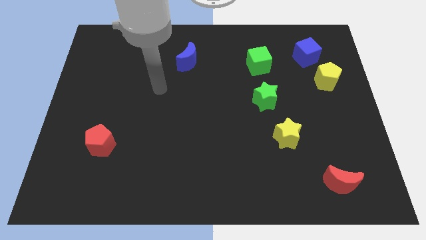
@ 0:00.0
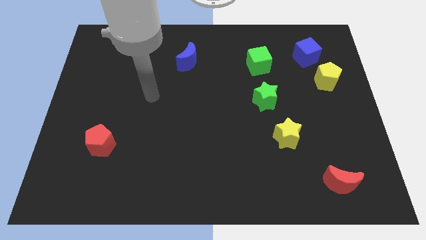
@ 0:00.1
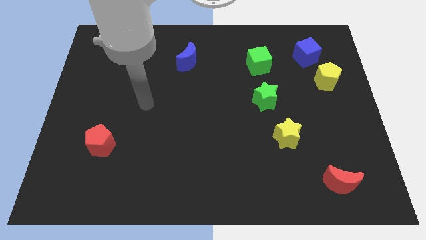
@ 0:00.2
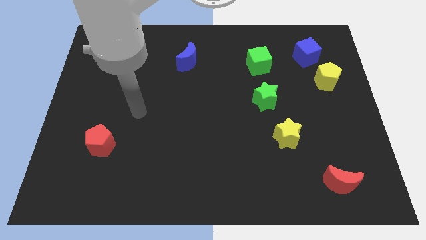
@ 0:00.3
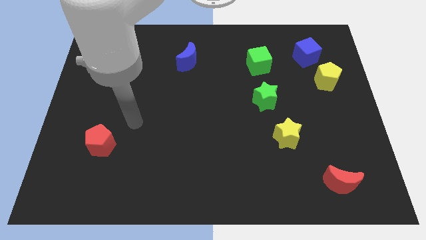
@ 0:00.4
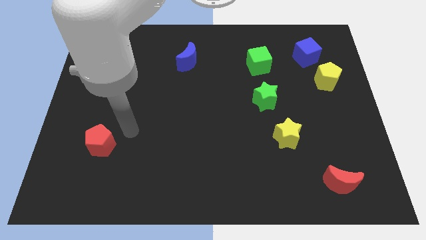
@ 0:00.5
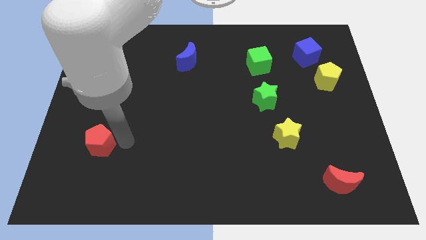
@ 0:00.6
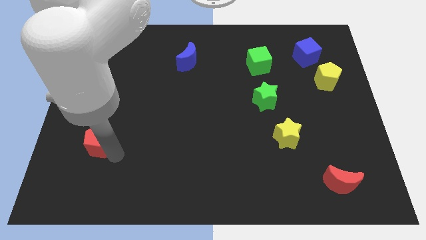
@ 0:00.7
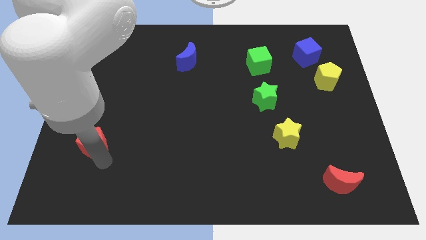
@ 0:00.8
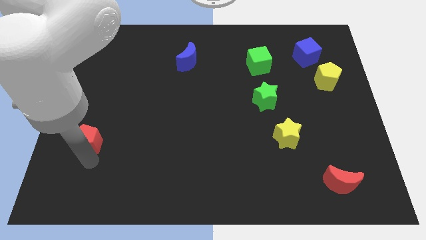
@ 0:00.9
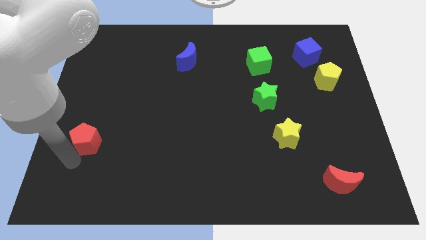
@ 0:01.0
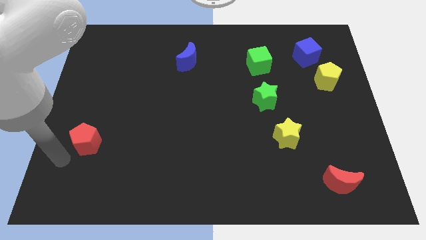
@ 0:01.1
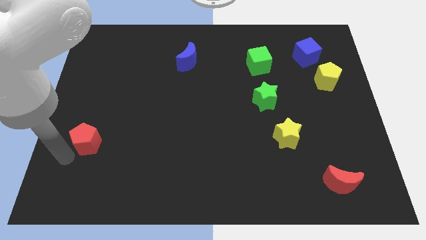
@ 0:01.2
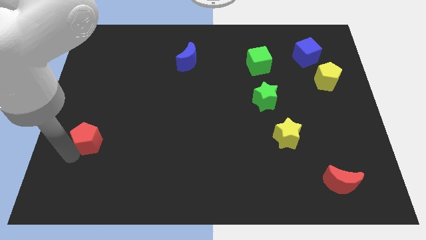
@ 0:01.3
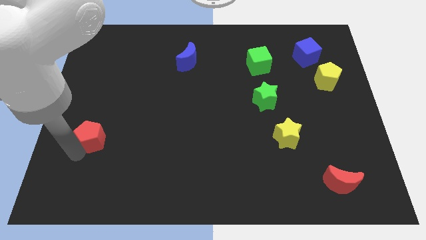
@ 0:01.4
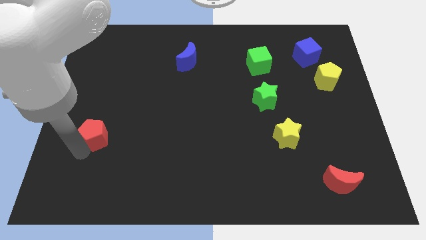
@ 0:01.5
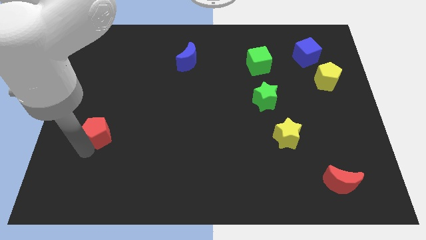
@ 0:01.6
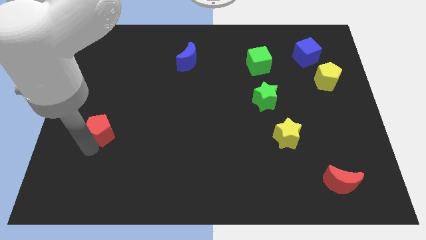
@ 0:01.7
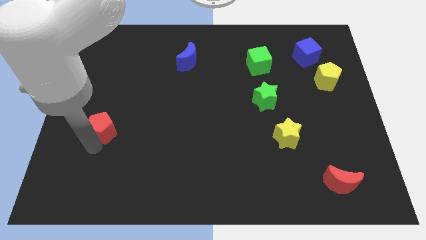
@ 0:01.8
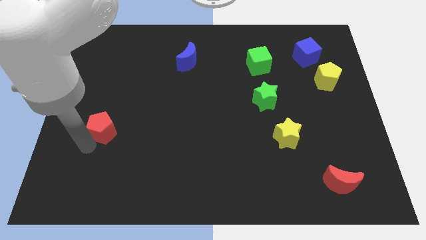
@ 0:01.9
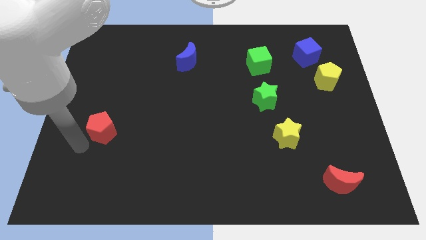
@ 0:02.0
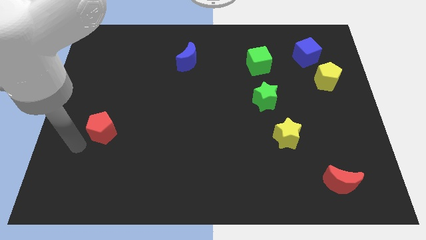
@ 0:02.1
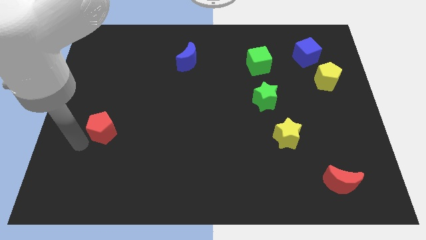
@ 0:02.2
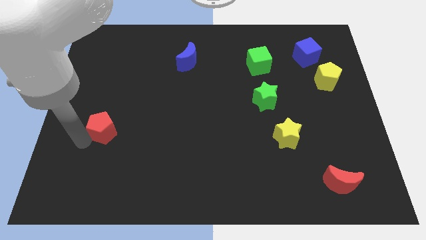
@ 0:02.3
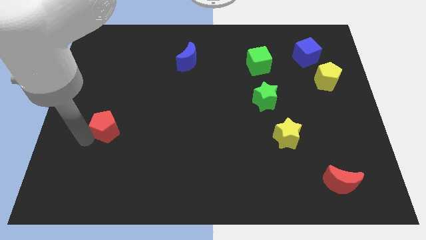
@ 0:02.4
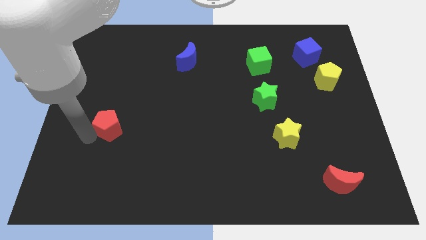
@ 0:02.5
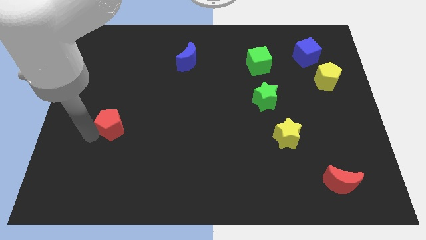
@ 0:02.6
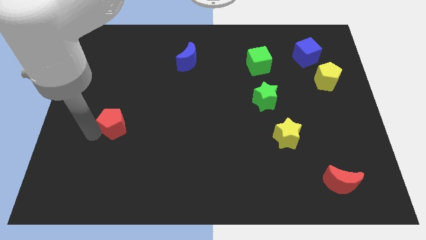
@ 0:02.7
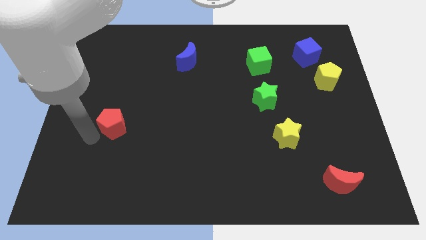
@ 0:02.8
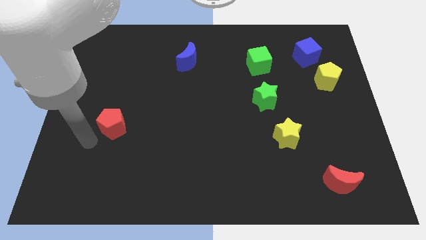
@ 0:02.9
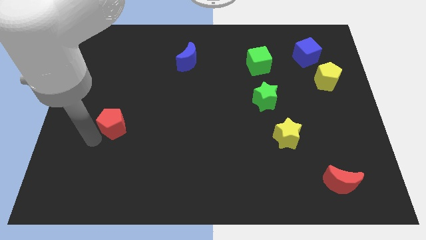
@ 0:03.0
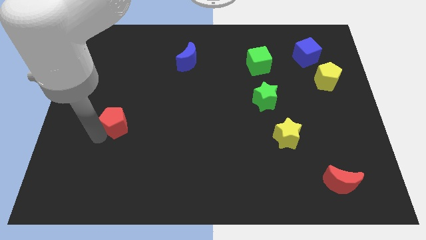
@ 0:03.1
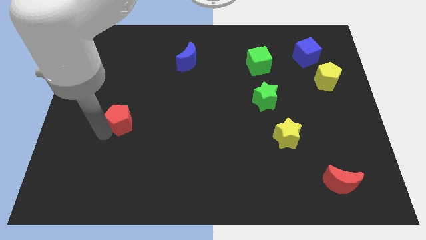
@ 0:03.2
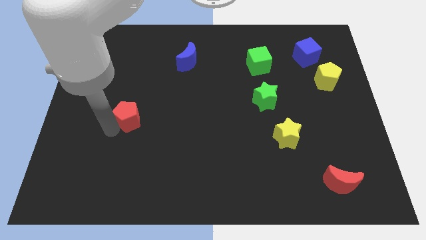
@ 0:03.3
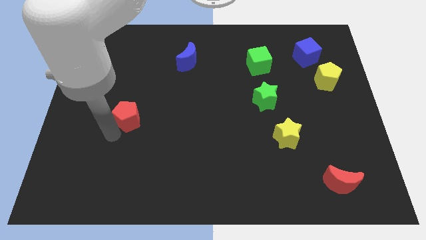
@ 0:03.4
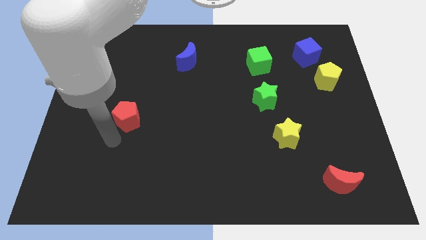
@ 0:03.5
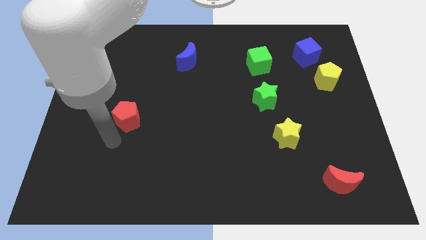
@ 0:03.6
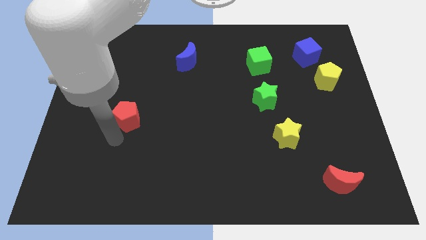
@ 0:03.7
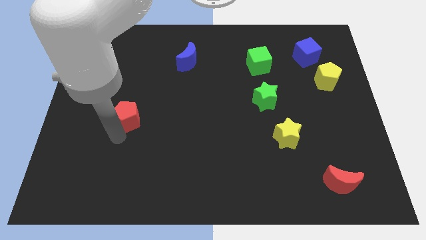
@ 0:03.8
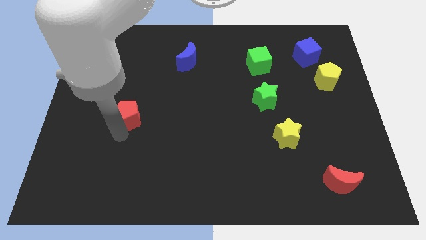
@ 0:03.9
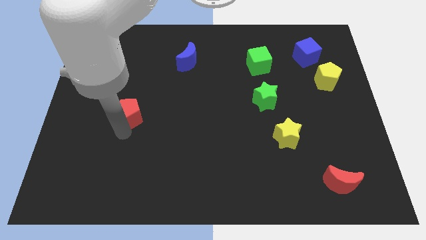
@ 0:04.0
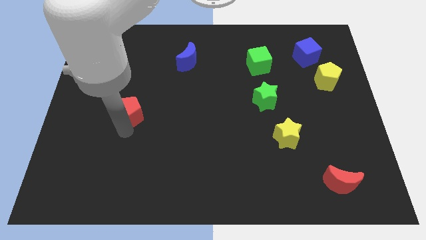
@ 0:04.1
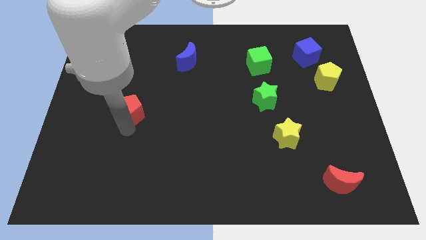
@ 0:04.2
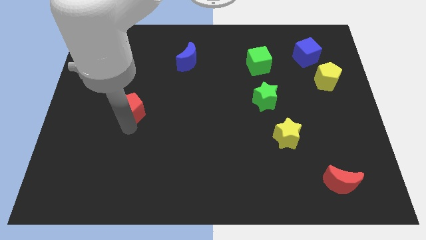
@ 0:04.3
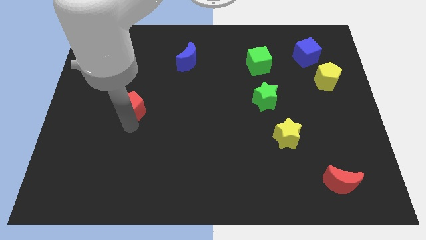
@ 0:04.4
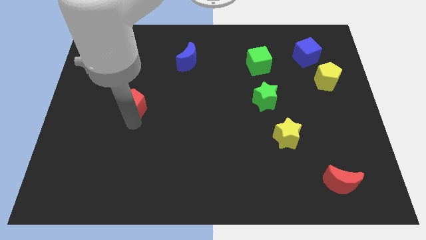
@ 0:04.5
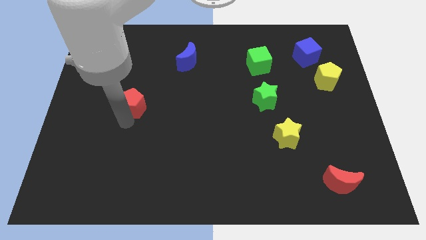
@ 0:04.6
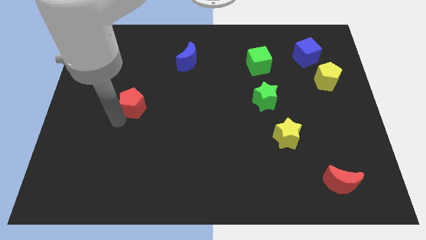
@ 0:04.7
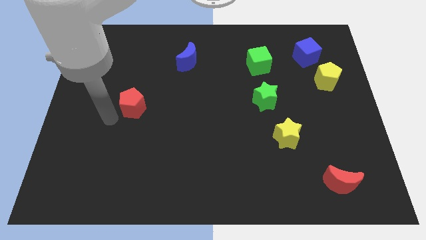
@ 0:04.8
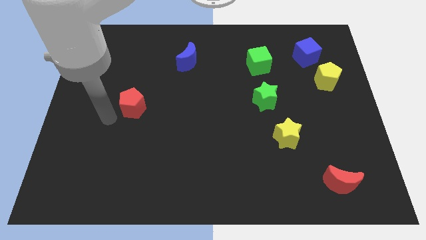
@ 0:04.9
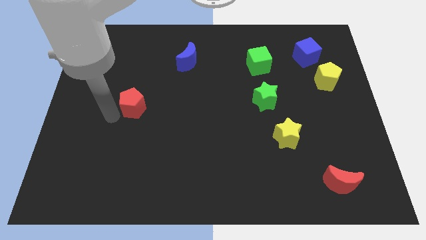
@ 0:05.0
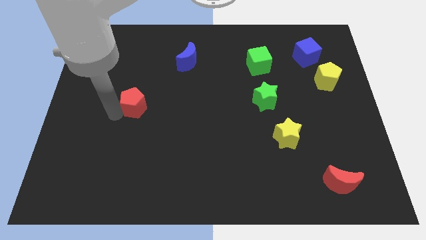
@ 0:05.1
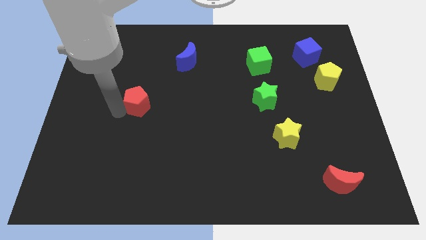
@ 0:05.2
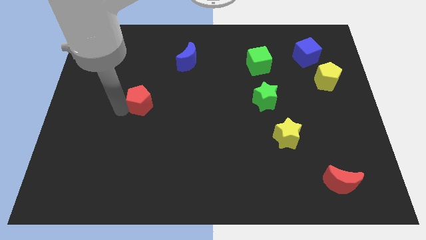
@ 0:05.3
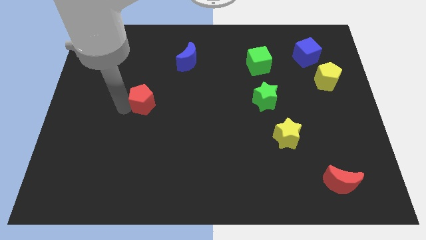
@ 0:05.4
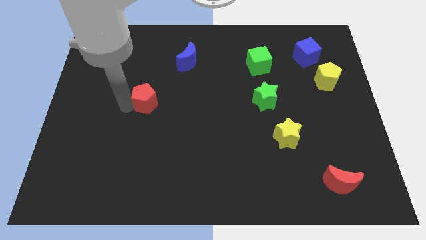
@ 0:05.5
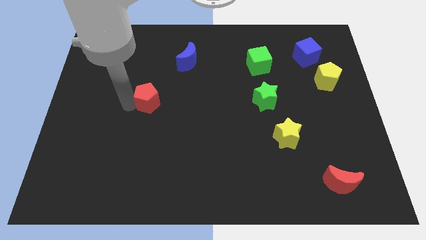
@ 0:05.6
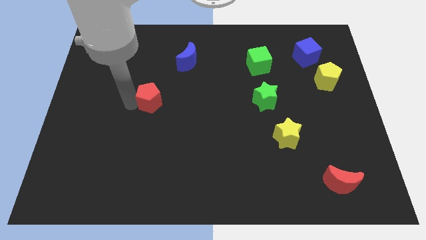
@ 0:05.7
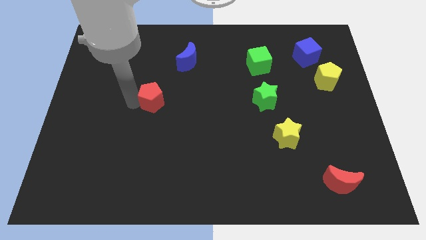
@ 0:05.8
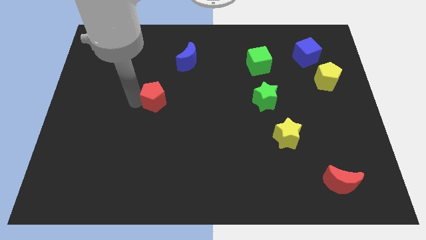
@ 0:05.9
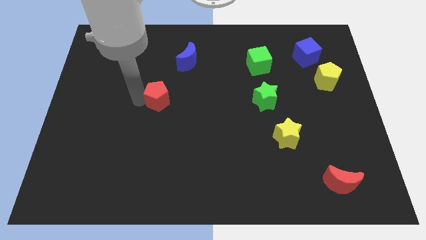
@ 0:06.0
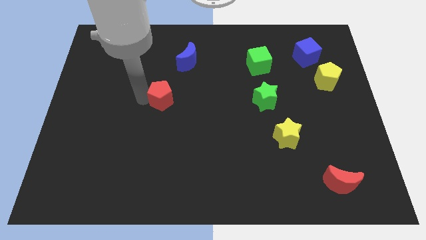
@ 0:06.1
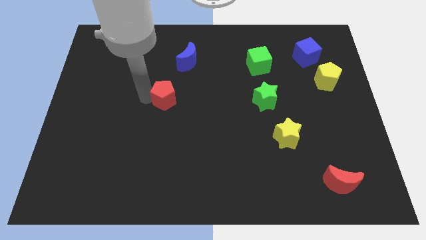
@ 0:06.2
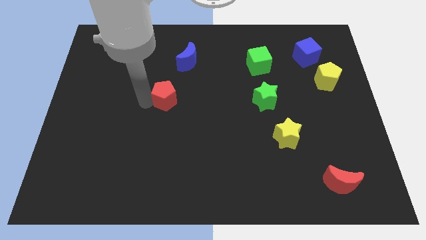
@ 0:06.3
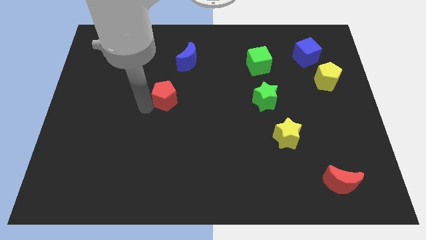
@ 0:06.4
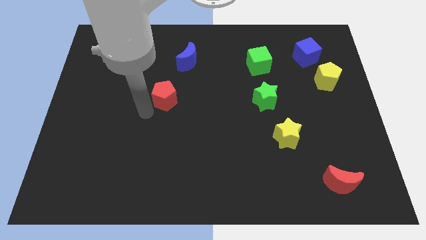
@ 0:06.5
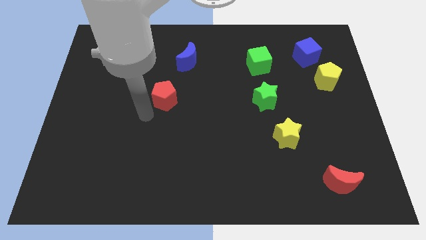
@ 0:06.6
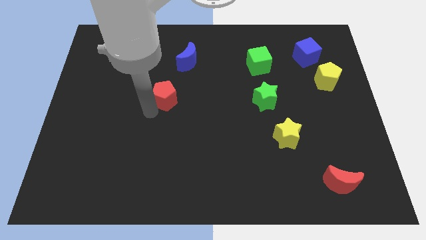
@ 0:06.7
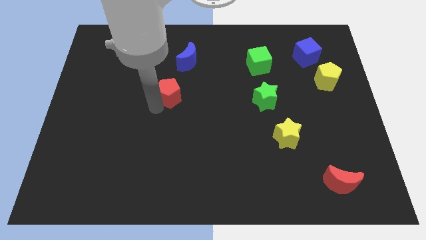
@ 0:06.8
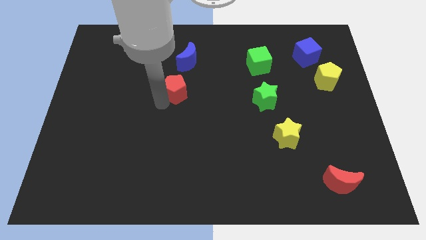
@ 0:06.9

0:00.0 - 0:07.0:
move the red pentagon upwards and then to the right

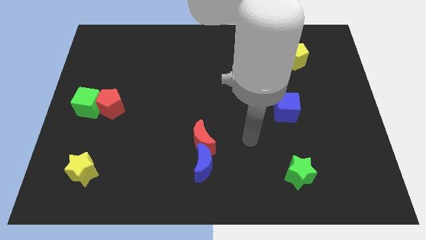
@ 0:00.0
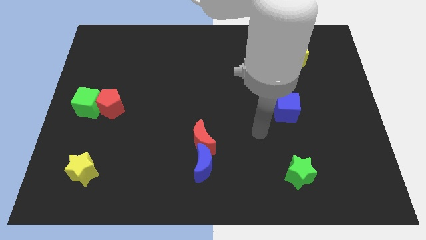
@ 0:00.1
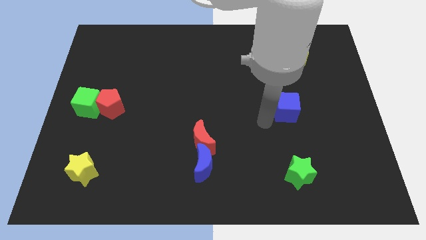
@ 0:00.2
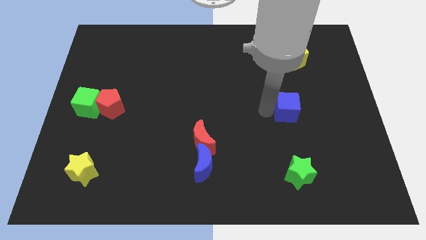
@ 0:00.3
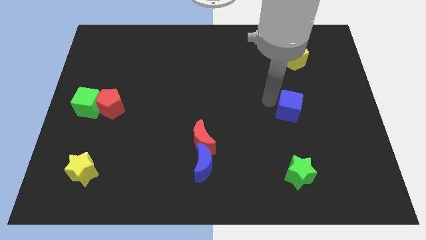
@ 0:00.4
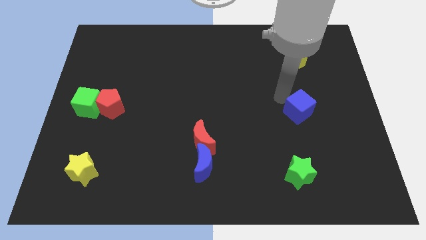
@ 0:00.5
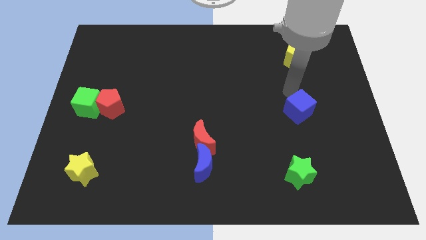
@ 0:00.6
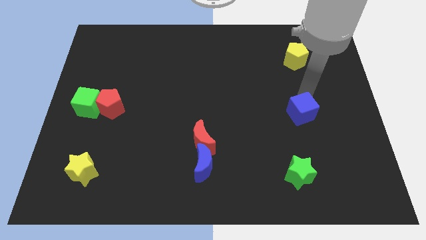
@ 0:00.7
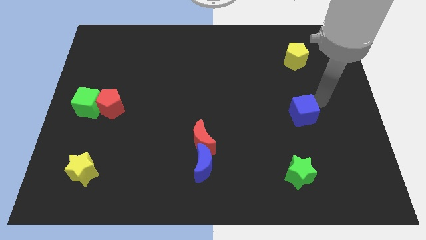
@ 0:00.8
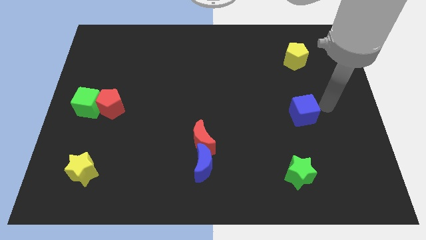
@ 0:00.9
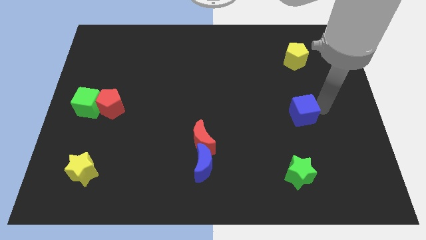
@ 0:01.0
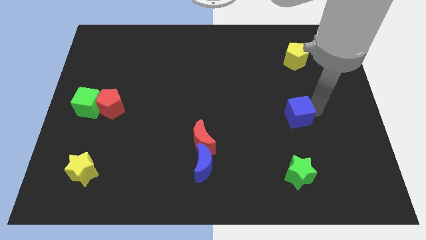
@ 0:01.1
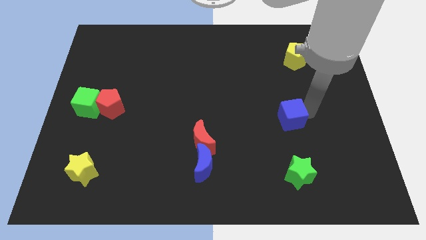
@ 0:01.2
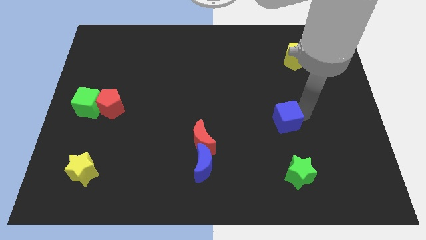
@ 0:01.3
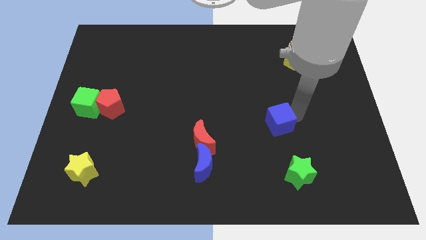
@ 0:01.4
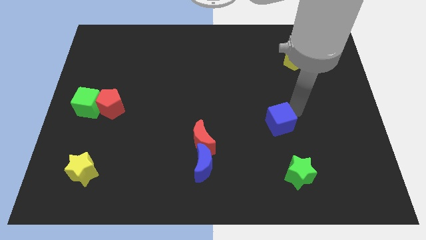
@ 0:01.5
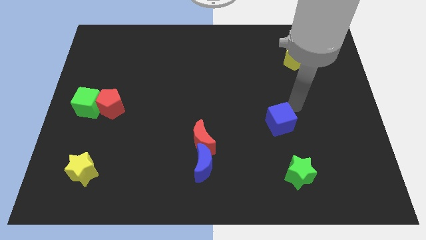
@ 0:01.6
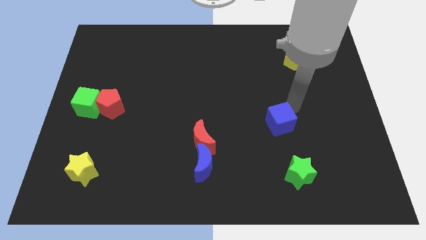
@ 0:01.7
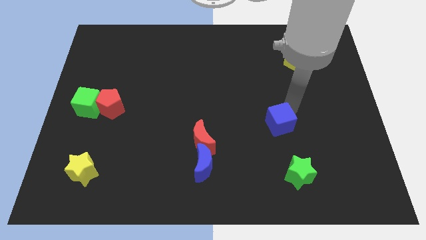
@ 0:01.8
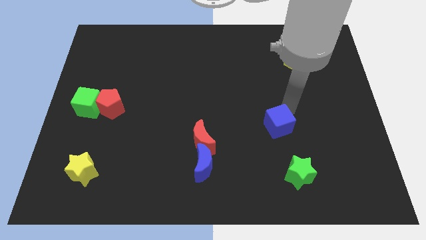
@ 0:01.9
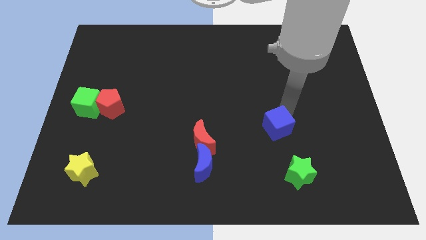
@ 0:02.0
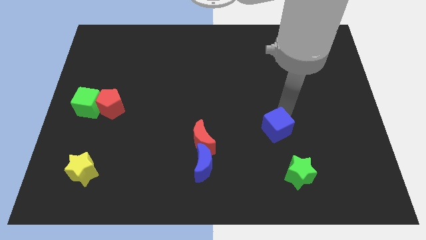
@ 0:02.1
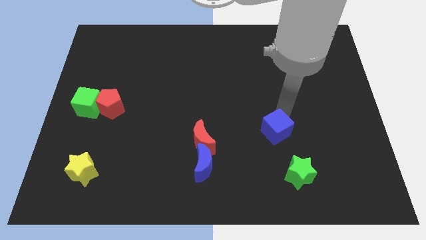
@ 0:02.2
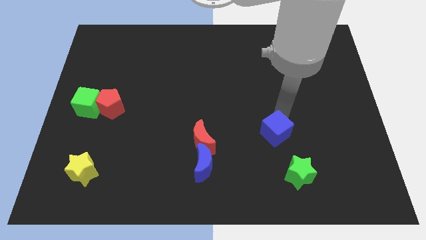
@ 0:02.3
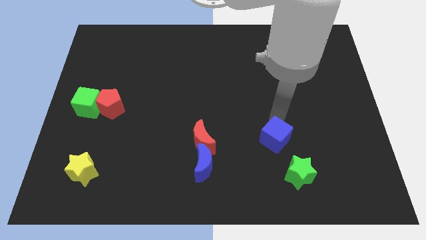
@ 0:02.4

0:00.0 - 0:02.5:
slightly move the blue cube down and left
